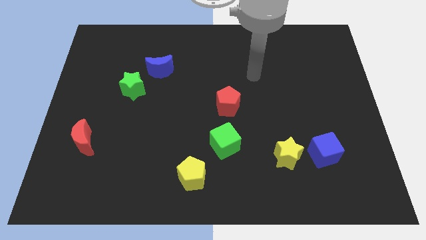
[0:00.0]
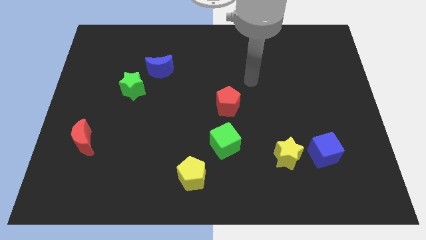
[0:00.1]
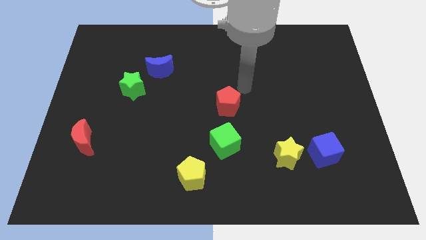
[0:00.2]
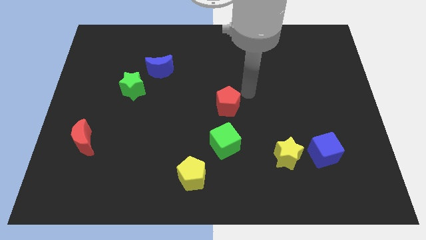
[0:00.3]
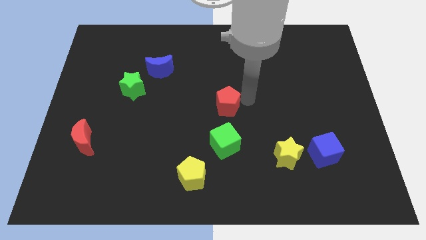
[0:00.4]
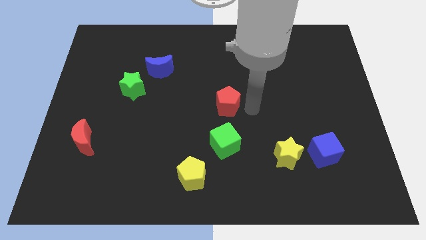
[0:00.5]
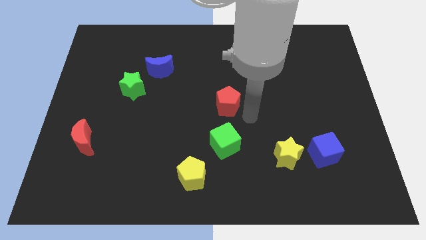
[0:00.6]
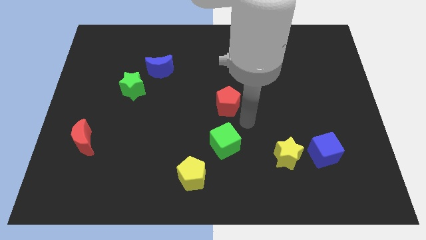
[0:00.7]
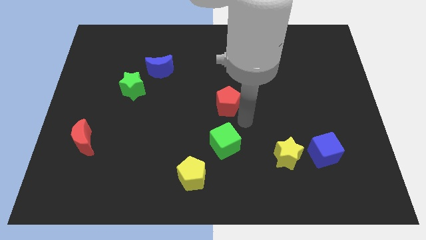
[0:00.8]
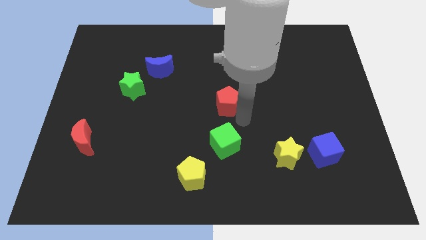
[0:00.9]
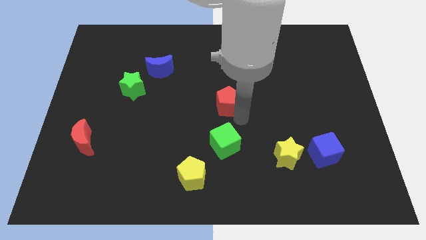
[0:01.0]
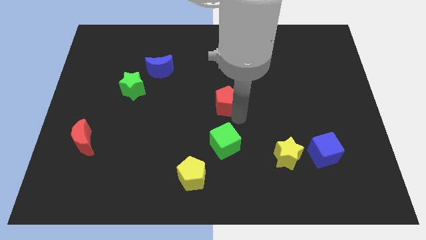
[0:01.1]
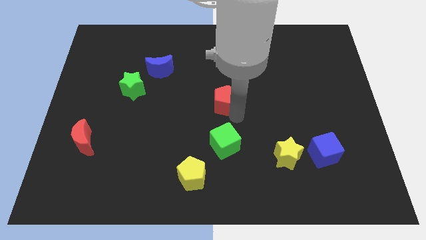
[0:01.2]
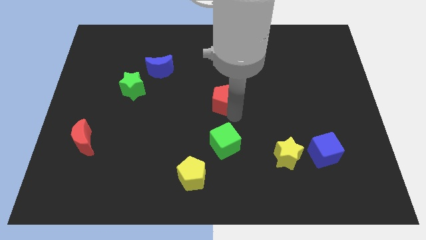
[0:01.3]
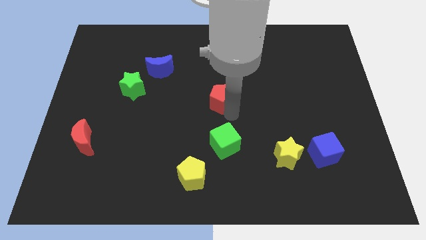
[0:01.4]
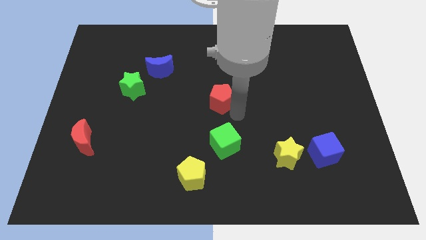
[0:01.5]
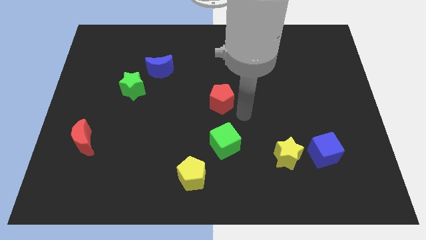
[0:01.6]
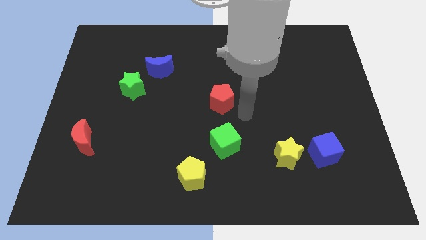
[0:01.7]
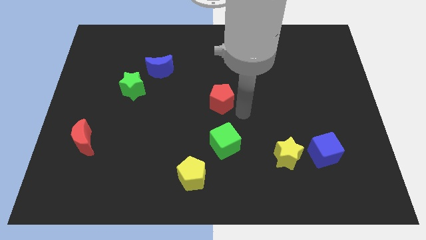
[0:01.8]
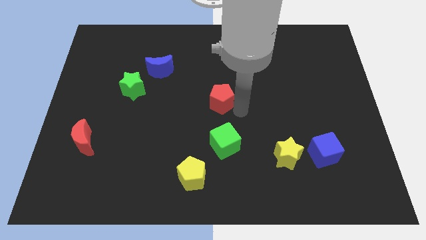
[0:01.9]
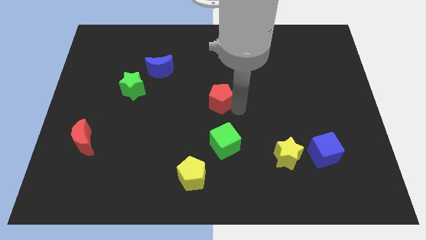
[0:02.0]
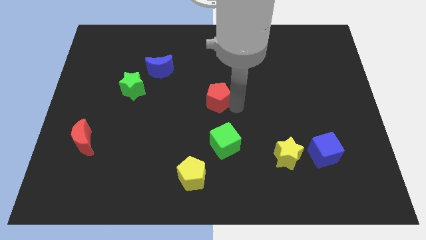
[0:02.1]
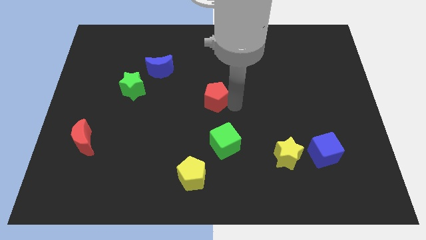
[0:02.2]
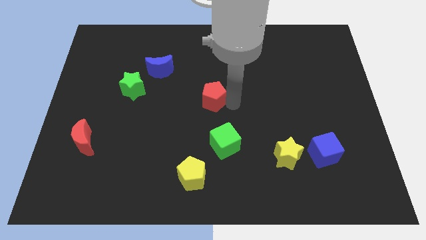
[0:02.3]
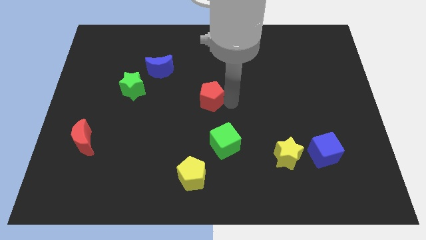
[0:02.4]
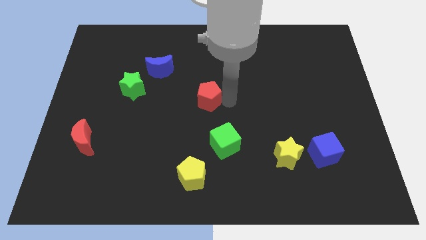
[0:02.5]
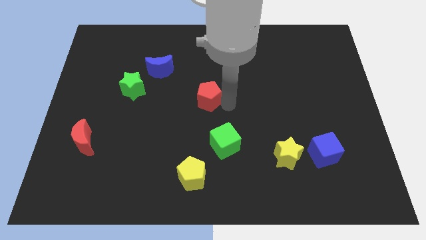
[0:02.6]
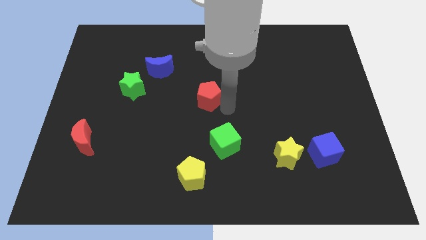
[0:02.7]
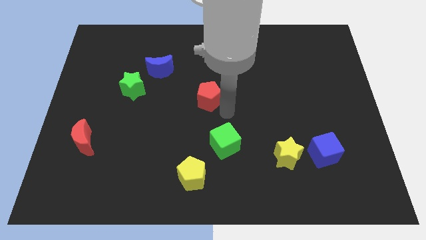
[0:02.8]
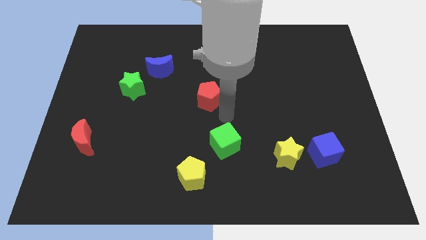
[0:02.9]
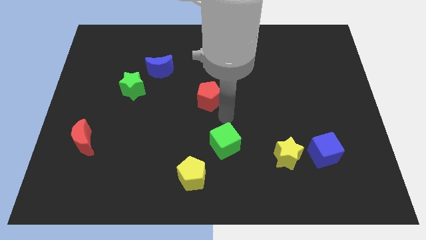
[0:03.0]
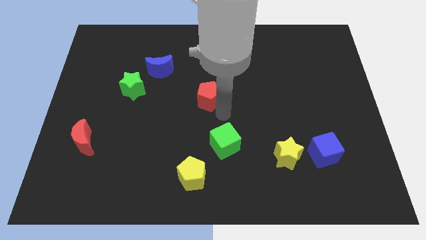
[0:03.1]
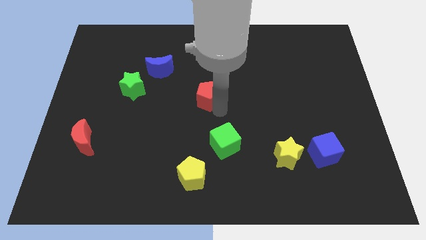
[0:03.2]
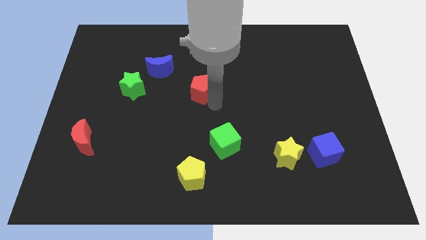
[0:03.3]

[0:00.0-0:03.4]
slightly move the red pentagon upwards and to the left

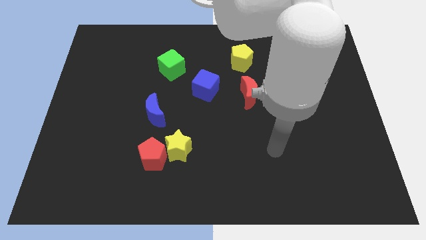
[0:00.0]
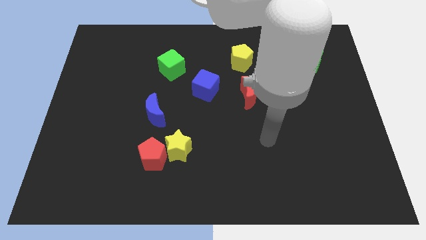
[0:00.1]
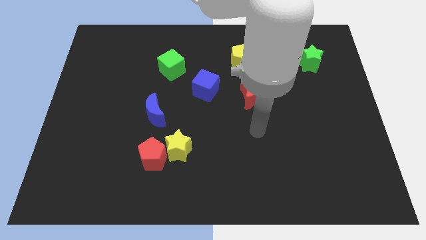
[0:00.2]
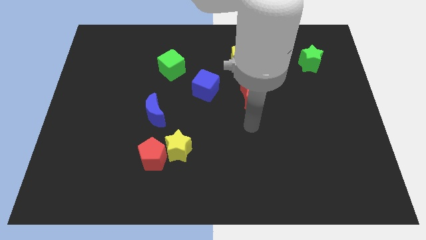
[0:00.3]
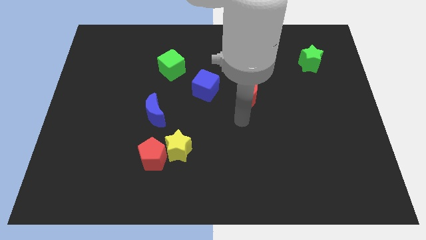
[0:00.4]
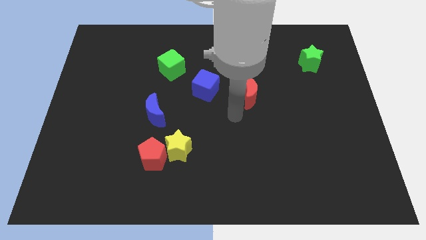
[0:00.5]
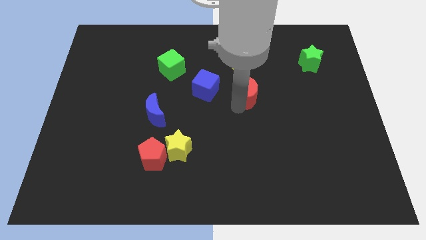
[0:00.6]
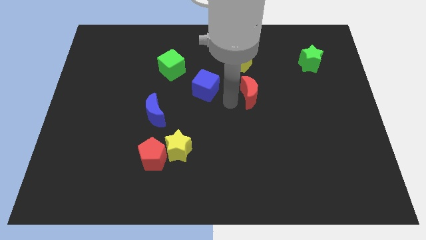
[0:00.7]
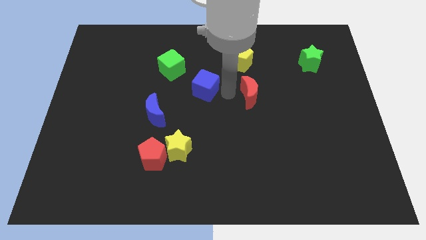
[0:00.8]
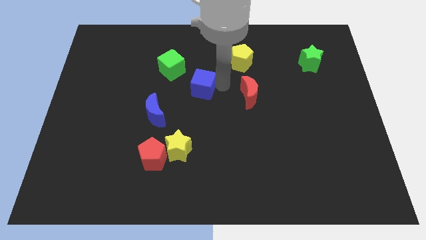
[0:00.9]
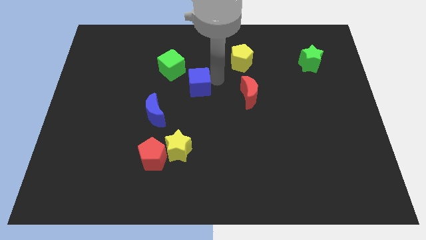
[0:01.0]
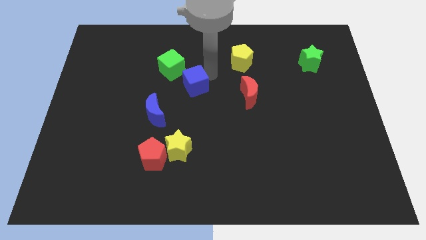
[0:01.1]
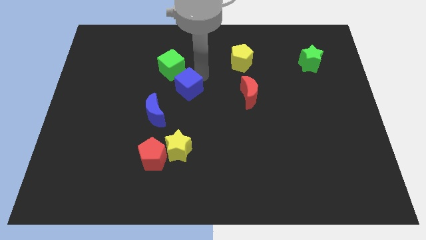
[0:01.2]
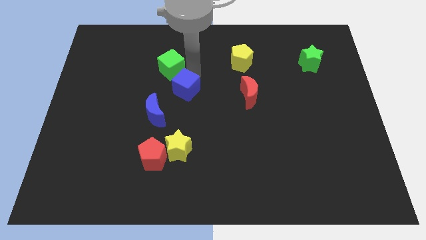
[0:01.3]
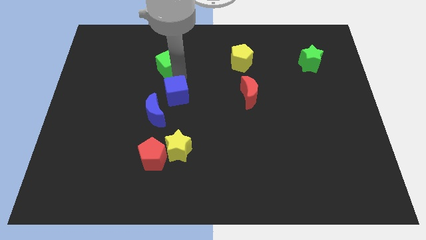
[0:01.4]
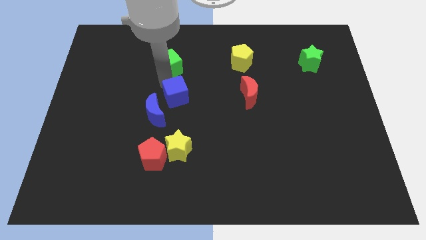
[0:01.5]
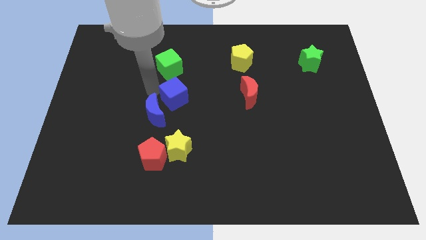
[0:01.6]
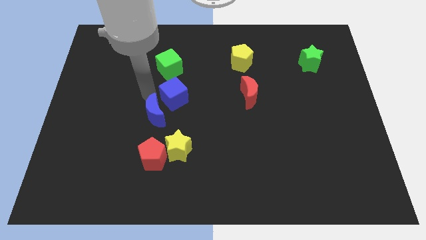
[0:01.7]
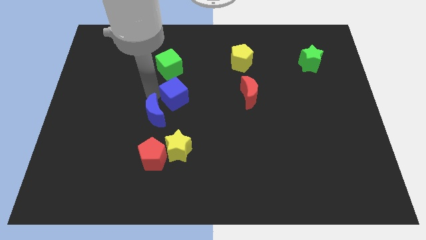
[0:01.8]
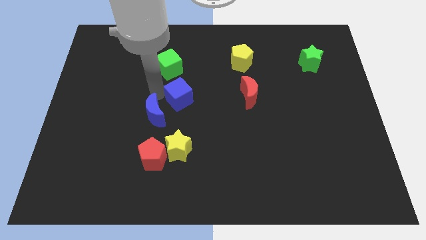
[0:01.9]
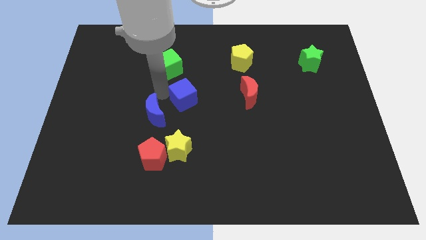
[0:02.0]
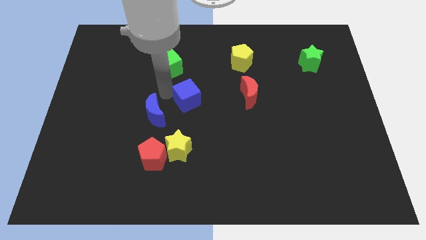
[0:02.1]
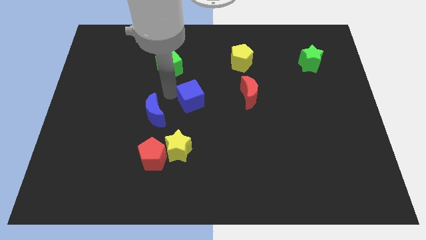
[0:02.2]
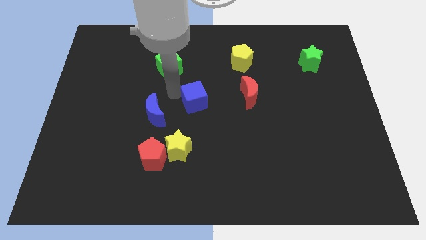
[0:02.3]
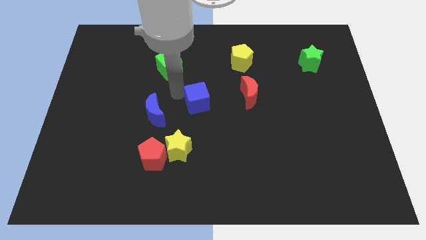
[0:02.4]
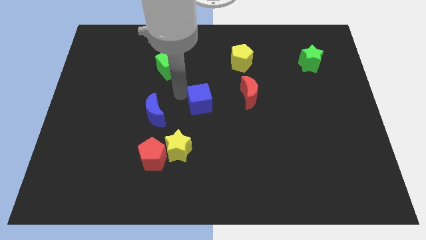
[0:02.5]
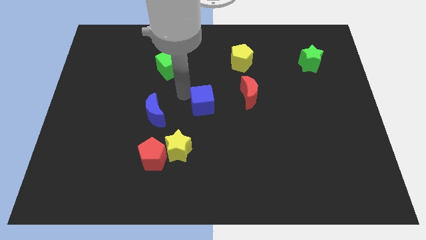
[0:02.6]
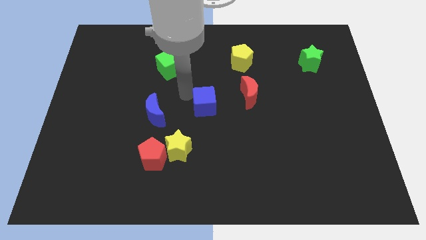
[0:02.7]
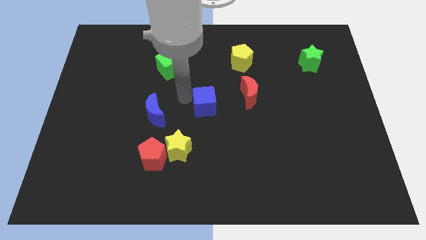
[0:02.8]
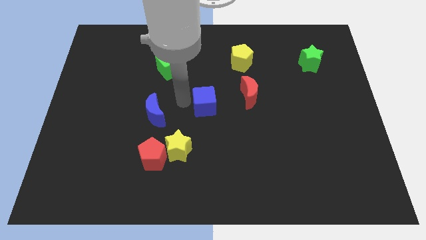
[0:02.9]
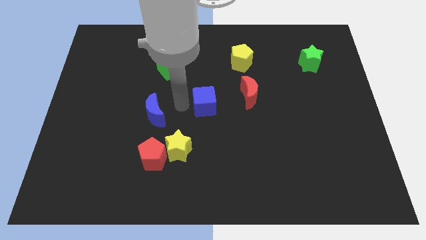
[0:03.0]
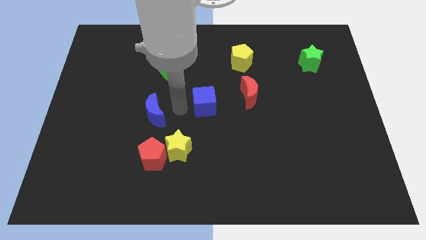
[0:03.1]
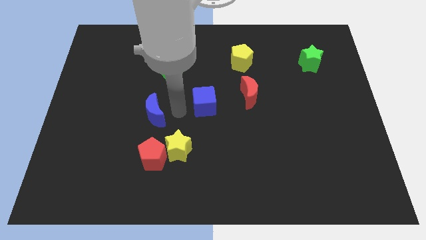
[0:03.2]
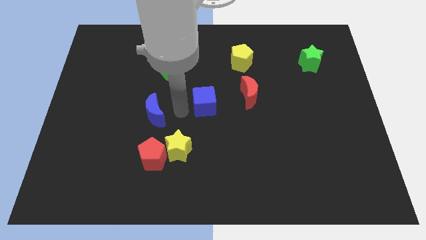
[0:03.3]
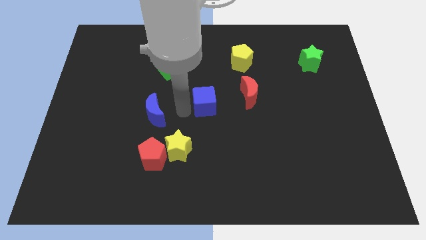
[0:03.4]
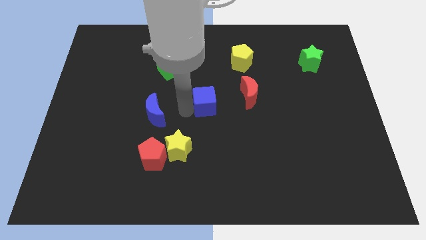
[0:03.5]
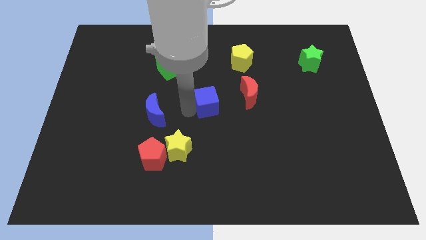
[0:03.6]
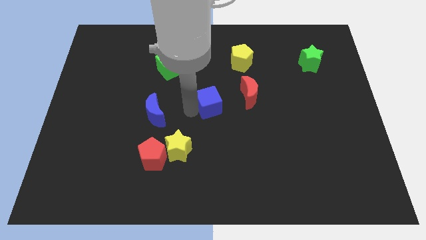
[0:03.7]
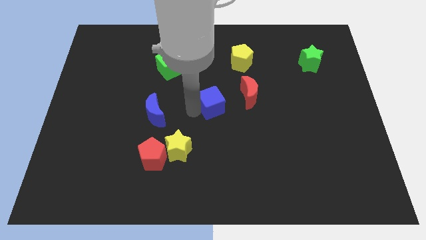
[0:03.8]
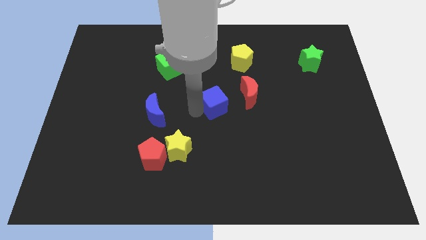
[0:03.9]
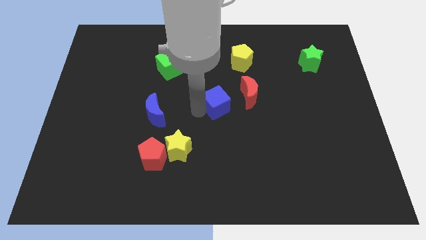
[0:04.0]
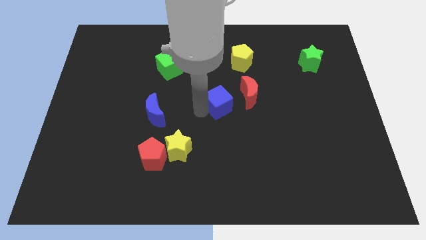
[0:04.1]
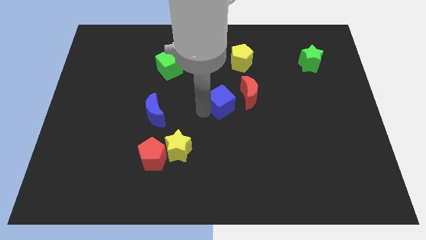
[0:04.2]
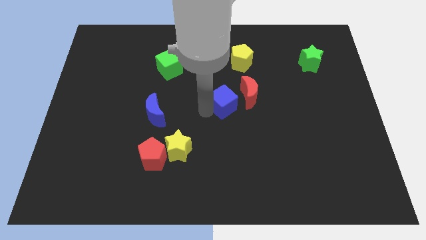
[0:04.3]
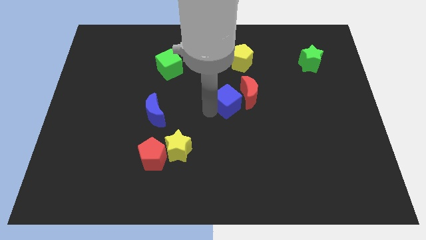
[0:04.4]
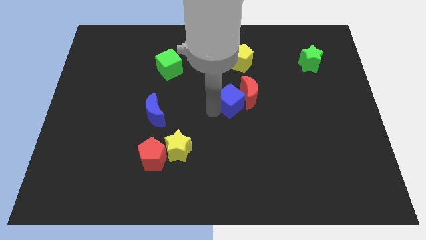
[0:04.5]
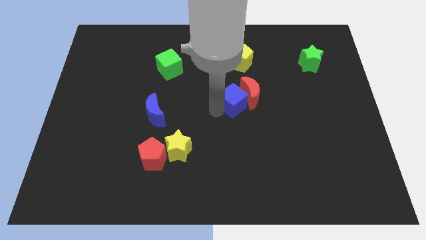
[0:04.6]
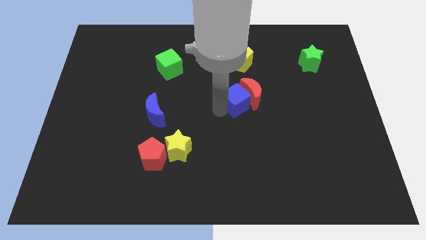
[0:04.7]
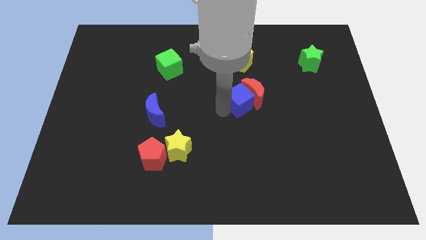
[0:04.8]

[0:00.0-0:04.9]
slightly push the blue cube right
